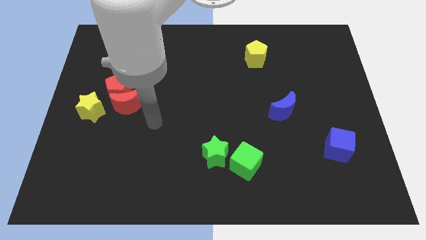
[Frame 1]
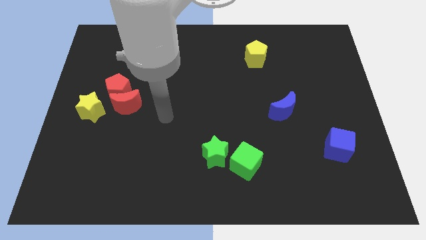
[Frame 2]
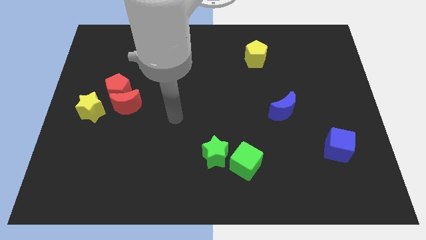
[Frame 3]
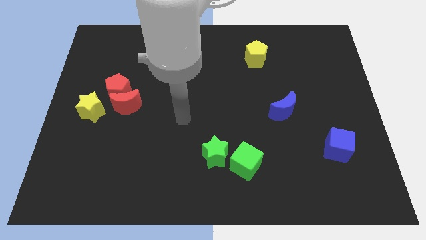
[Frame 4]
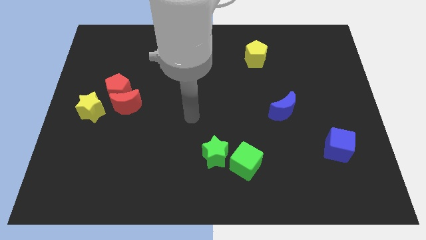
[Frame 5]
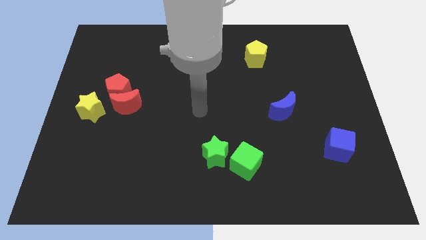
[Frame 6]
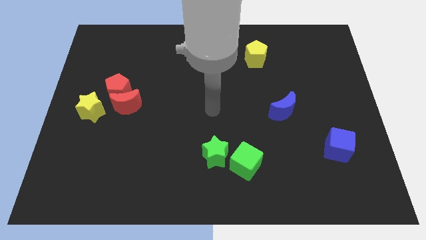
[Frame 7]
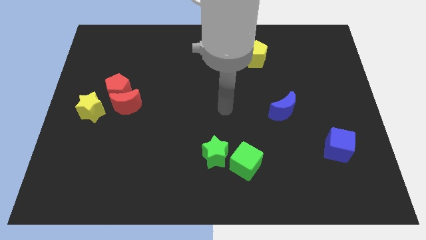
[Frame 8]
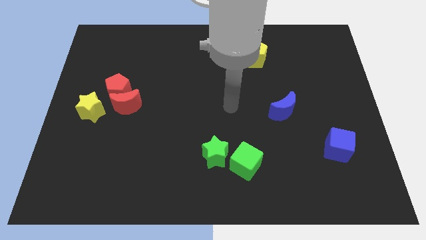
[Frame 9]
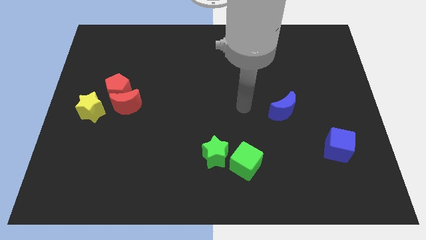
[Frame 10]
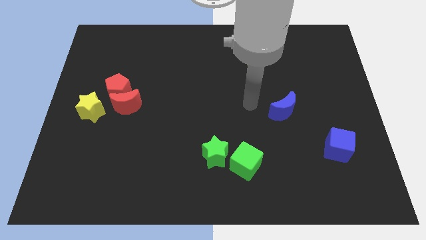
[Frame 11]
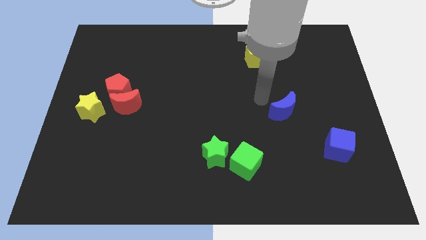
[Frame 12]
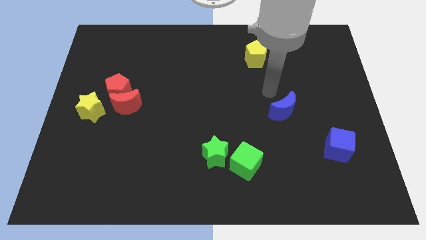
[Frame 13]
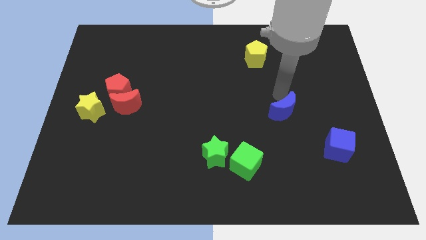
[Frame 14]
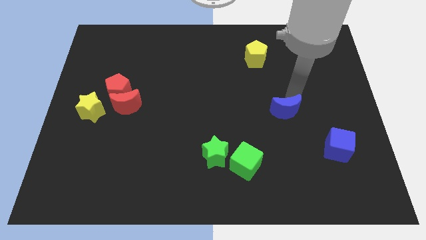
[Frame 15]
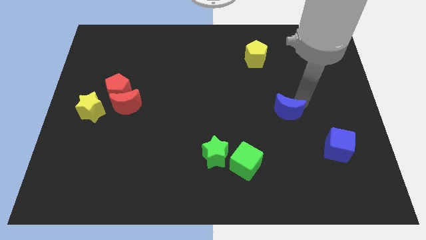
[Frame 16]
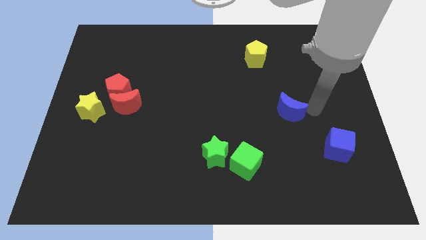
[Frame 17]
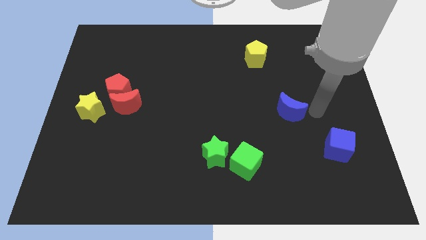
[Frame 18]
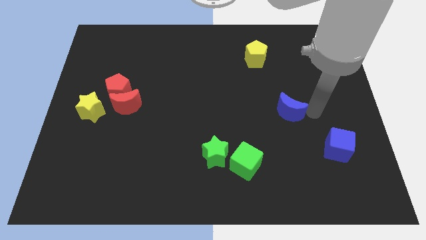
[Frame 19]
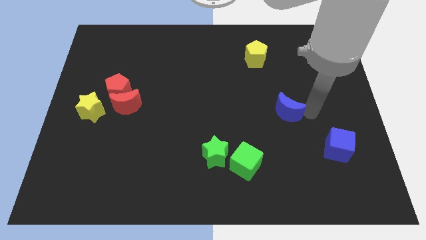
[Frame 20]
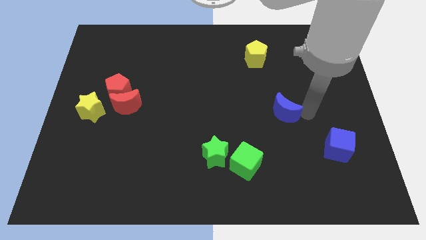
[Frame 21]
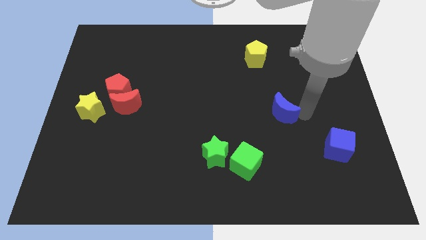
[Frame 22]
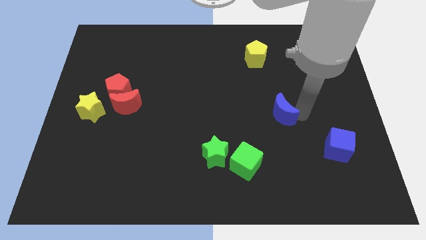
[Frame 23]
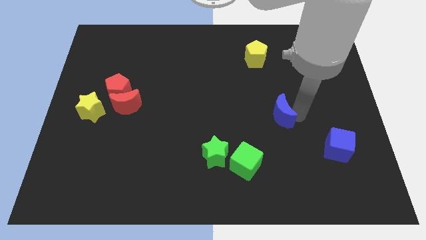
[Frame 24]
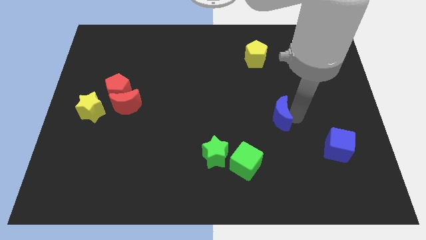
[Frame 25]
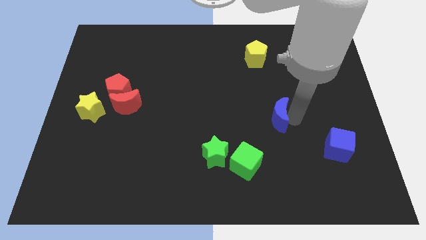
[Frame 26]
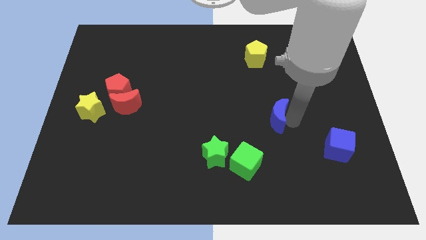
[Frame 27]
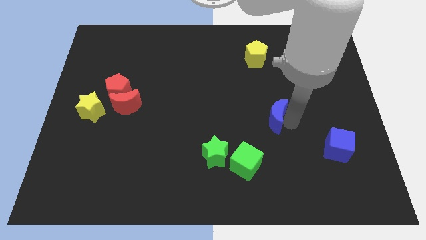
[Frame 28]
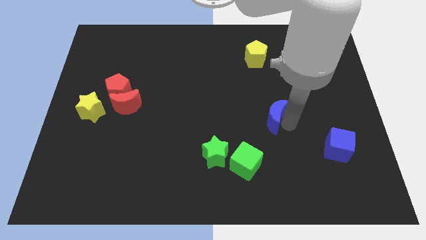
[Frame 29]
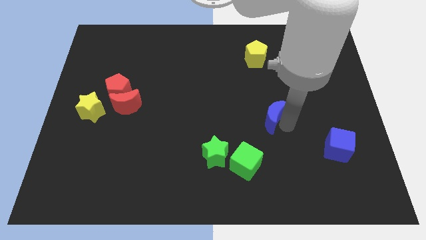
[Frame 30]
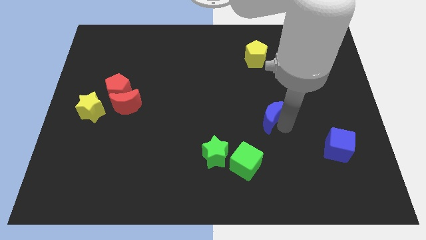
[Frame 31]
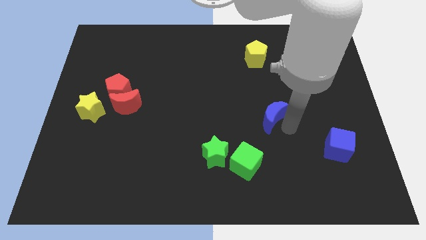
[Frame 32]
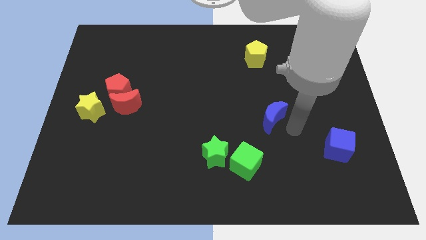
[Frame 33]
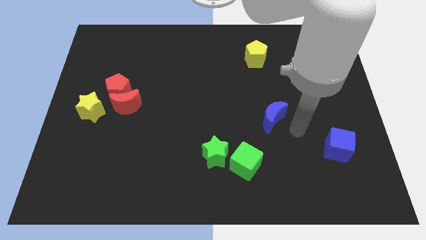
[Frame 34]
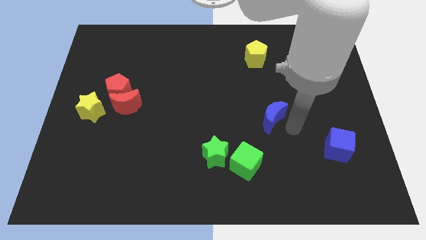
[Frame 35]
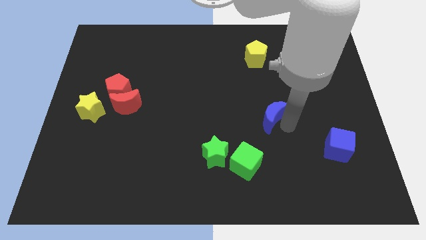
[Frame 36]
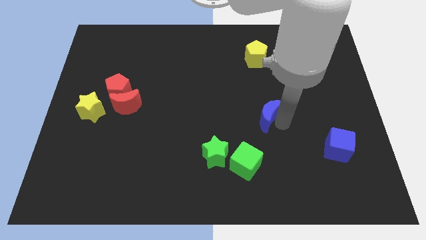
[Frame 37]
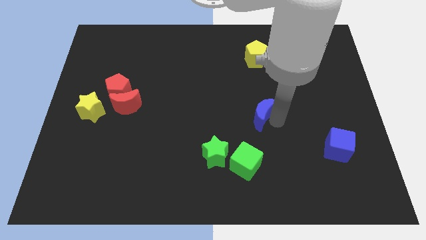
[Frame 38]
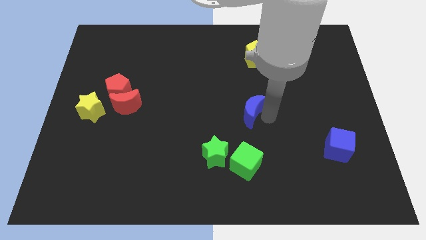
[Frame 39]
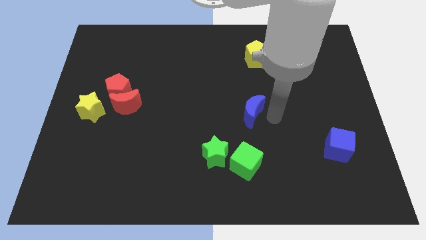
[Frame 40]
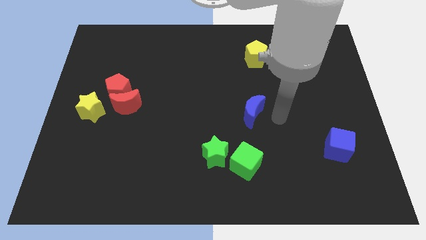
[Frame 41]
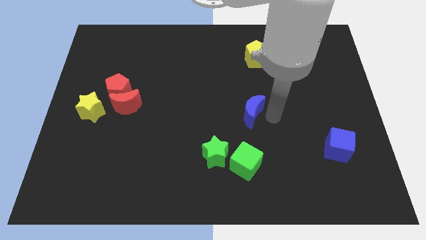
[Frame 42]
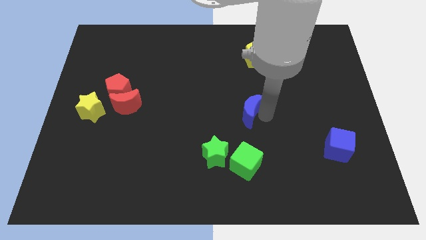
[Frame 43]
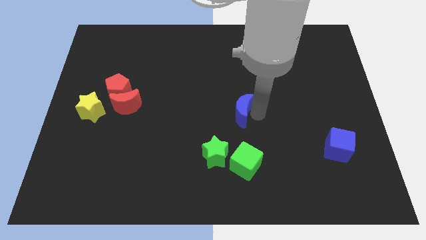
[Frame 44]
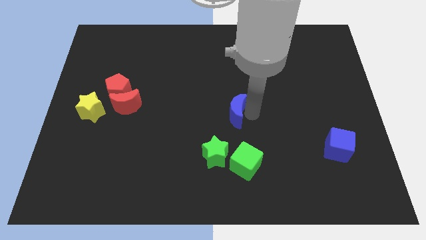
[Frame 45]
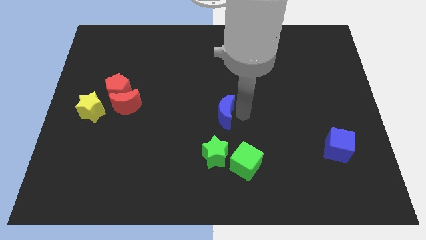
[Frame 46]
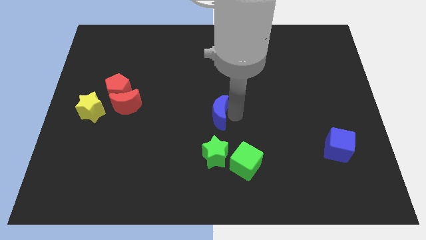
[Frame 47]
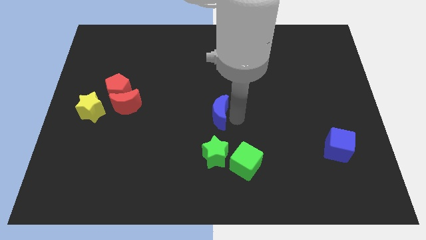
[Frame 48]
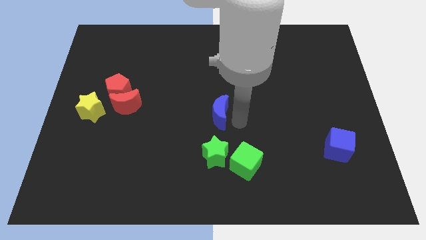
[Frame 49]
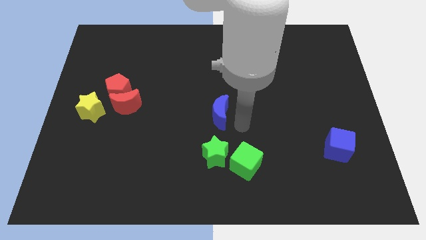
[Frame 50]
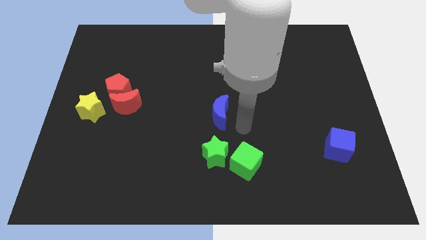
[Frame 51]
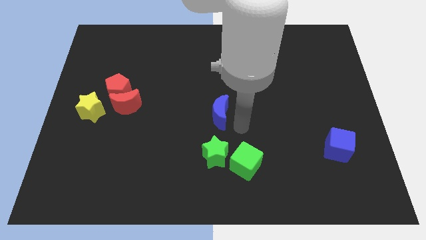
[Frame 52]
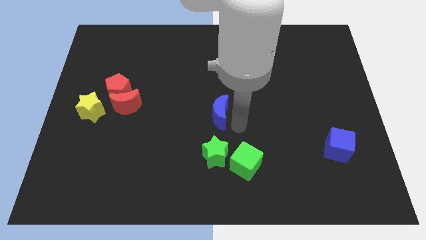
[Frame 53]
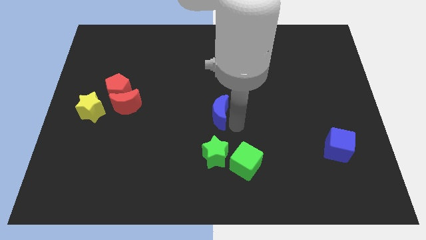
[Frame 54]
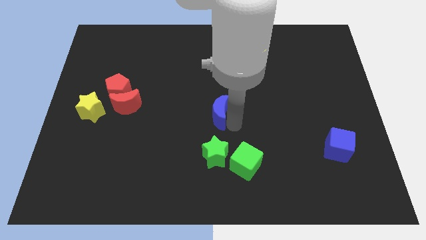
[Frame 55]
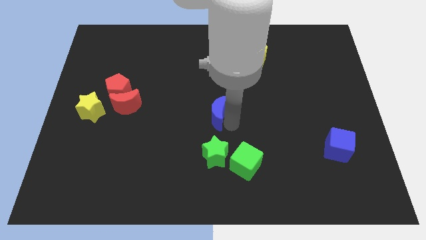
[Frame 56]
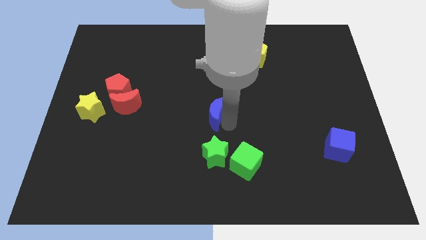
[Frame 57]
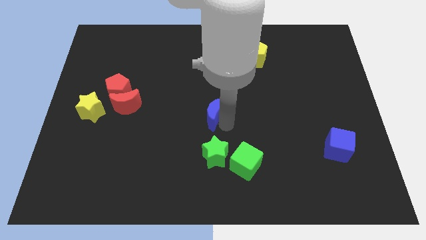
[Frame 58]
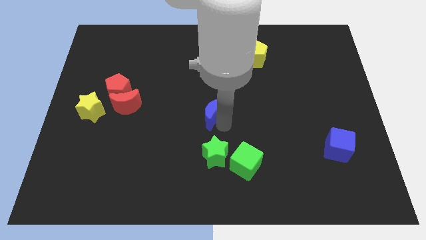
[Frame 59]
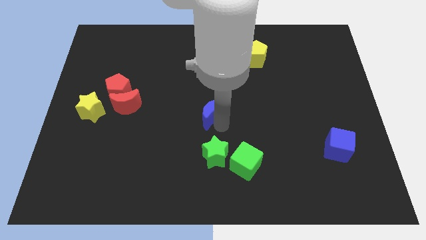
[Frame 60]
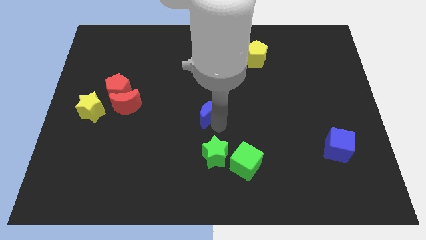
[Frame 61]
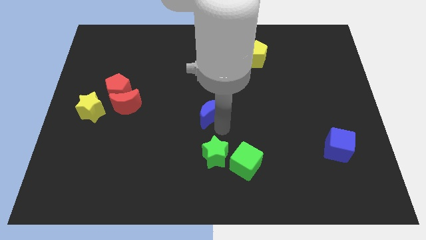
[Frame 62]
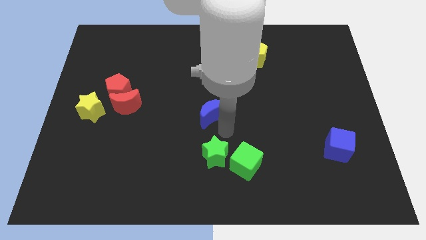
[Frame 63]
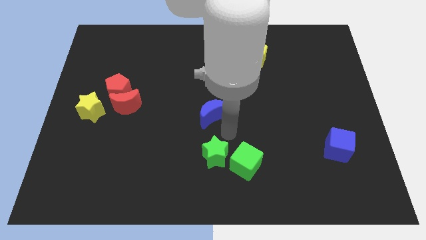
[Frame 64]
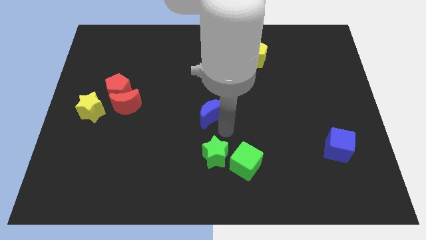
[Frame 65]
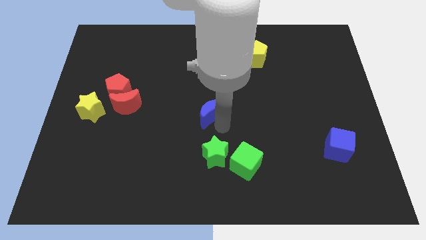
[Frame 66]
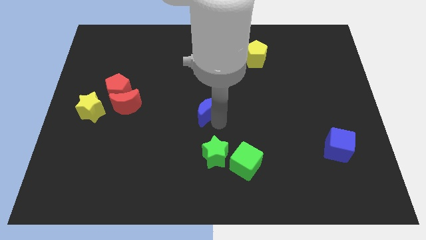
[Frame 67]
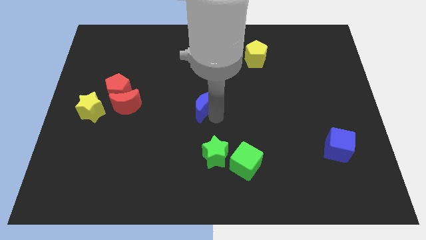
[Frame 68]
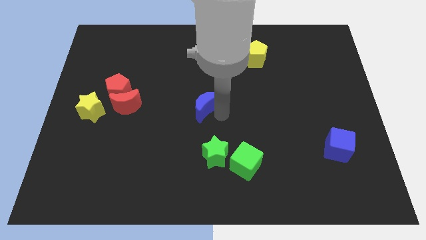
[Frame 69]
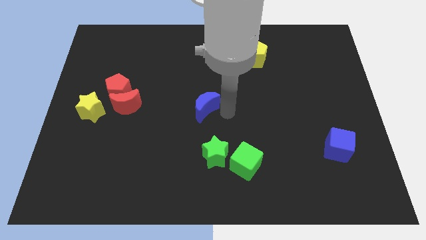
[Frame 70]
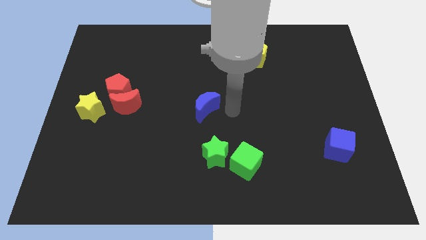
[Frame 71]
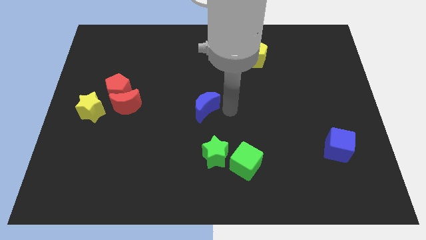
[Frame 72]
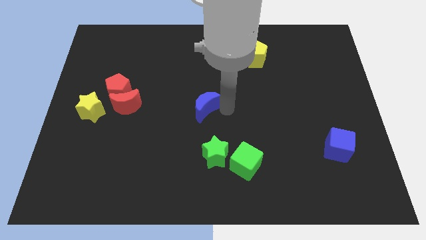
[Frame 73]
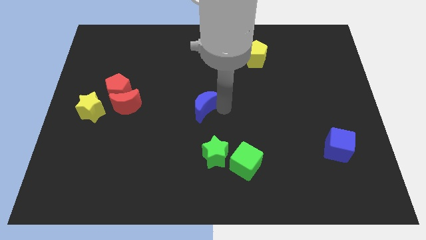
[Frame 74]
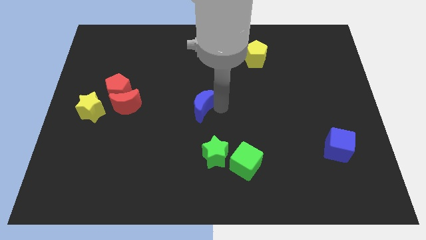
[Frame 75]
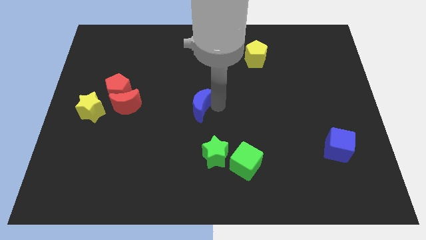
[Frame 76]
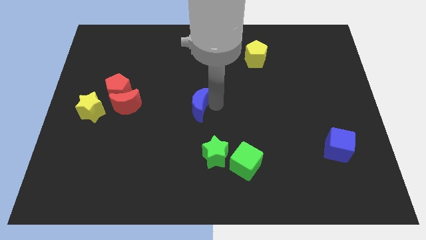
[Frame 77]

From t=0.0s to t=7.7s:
move the blue moon left

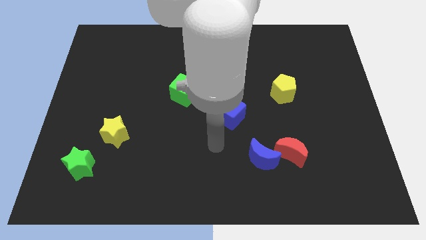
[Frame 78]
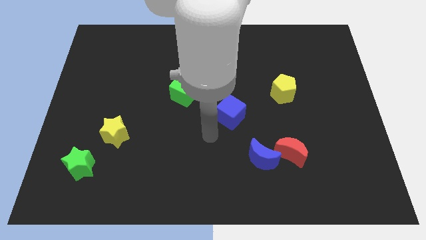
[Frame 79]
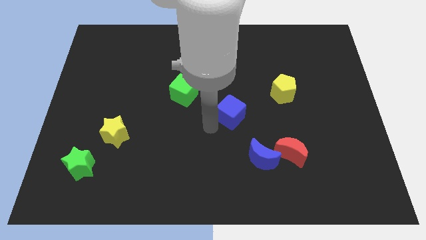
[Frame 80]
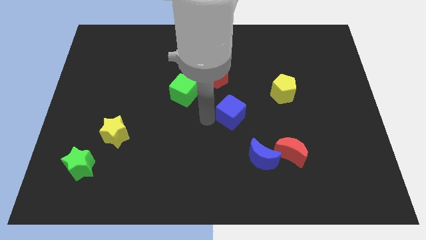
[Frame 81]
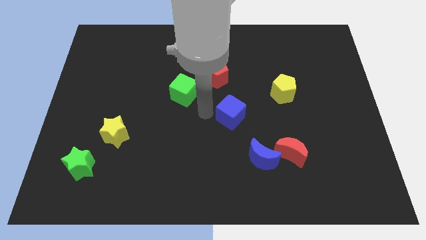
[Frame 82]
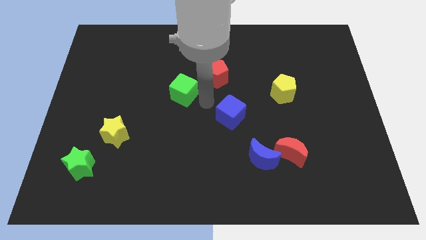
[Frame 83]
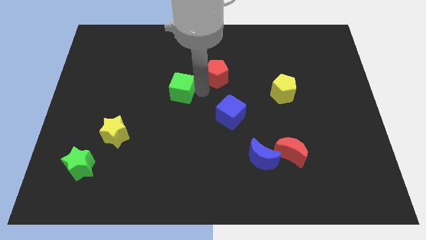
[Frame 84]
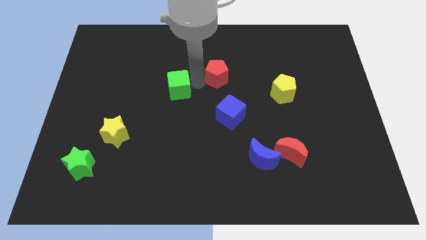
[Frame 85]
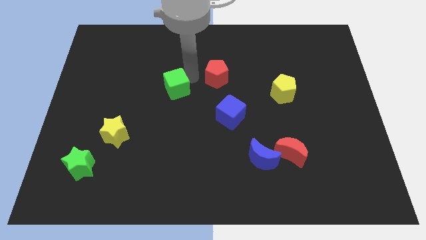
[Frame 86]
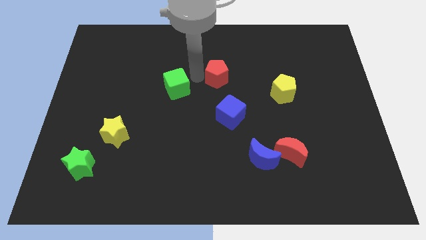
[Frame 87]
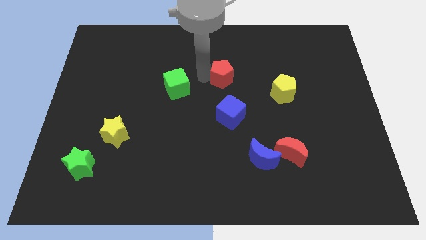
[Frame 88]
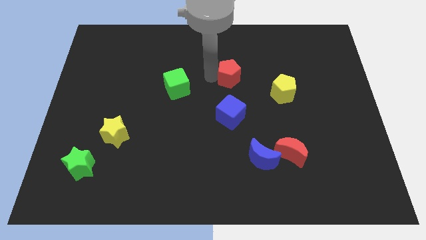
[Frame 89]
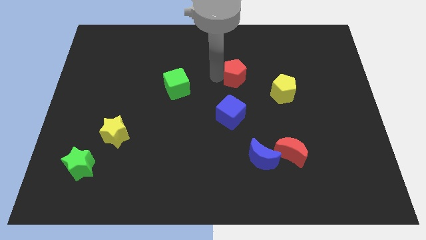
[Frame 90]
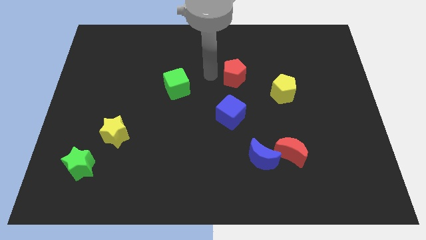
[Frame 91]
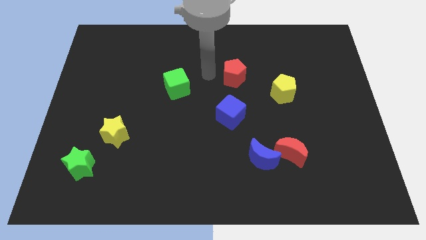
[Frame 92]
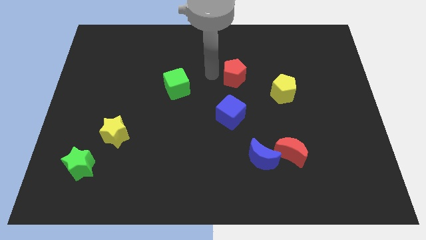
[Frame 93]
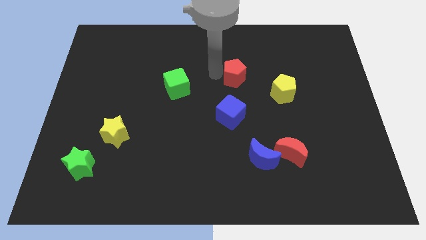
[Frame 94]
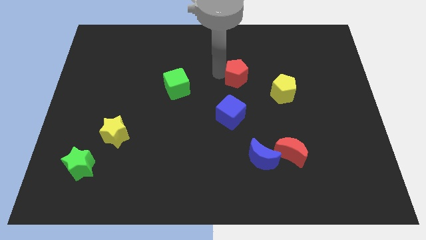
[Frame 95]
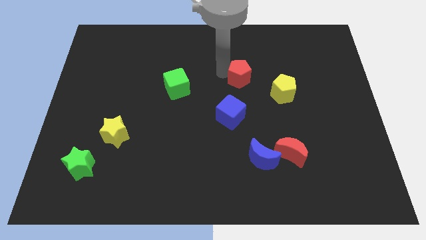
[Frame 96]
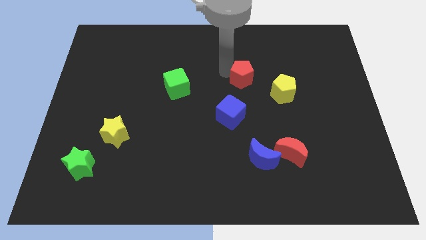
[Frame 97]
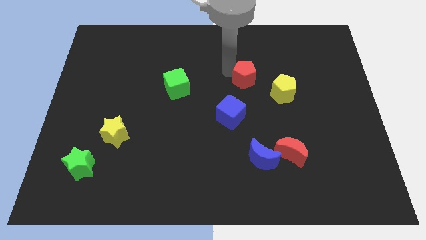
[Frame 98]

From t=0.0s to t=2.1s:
slightly slide the red pentagon right
